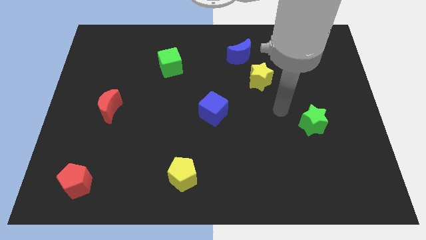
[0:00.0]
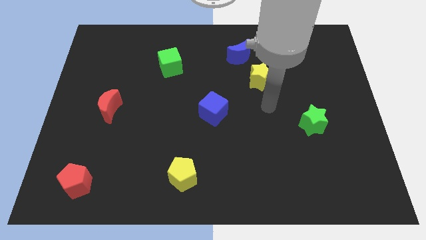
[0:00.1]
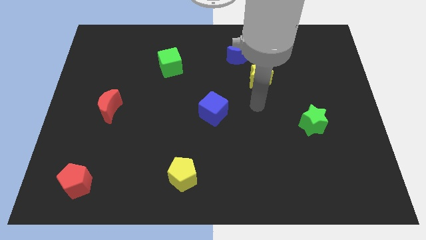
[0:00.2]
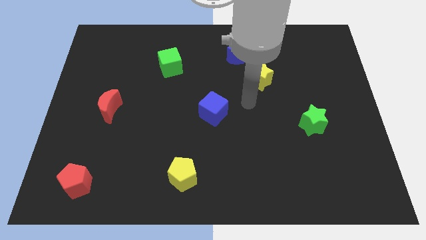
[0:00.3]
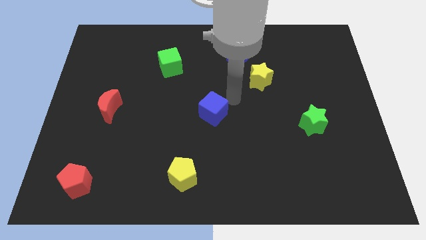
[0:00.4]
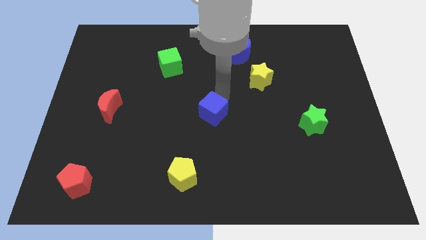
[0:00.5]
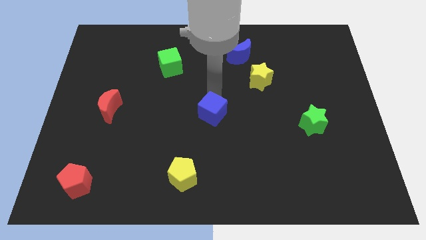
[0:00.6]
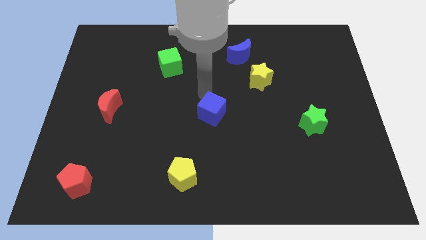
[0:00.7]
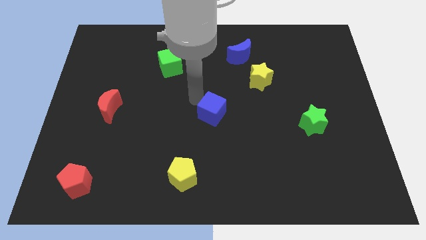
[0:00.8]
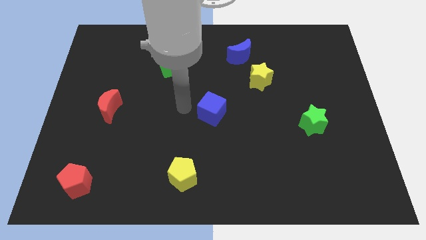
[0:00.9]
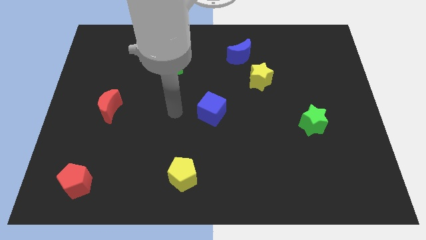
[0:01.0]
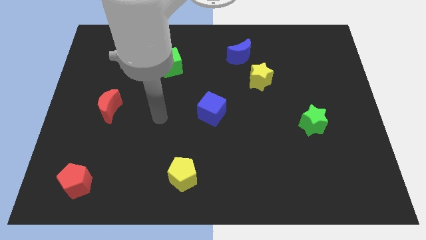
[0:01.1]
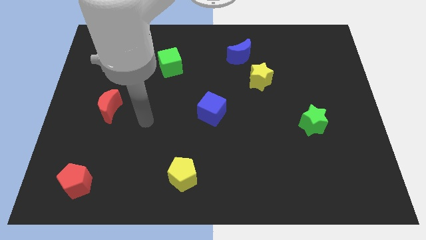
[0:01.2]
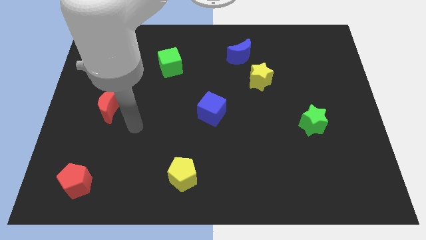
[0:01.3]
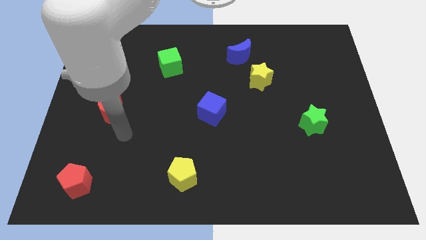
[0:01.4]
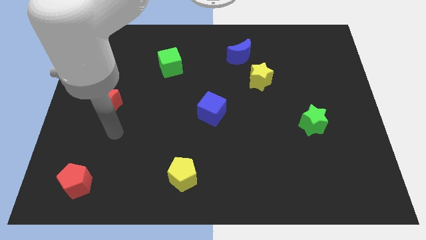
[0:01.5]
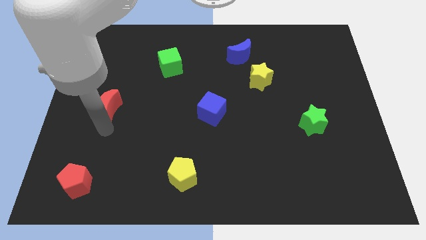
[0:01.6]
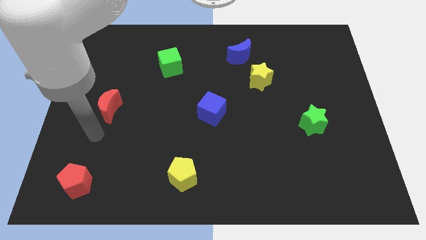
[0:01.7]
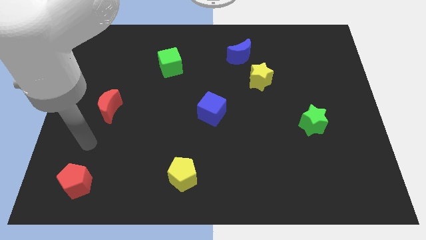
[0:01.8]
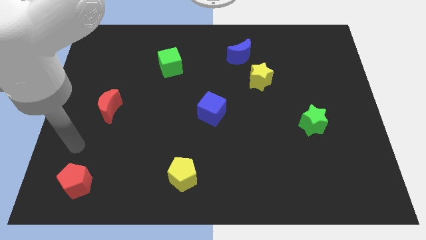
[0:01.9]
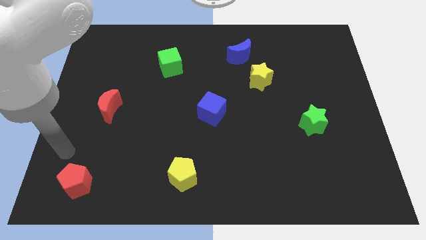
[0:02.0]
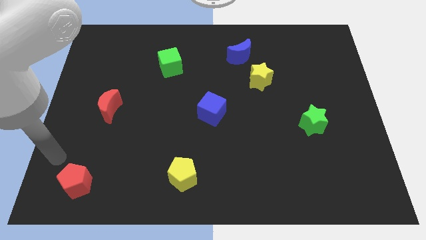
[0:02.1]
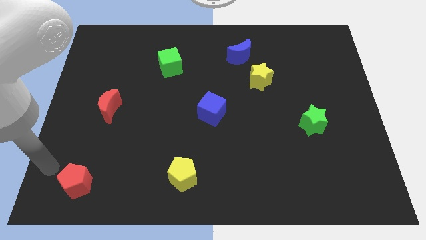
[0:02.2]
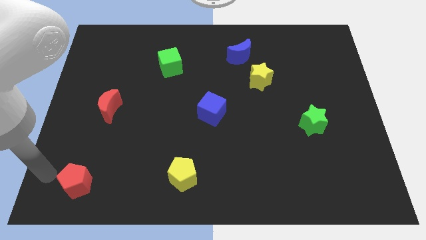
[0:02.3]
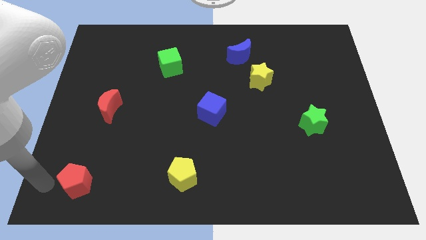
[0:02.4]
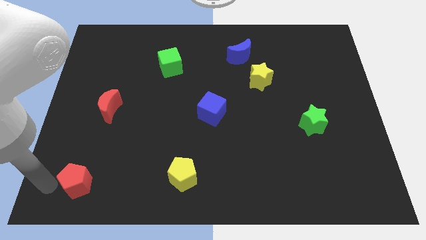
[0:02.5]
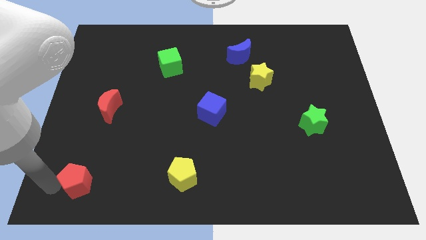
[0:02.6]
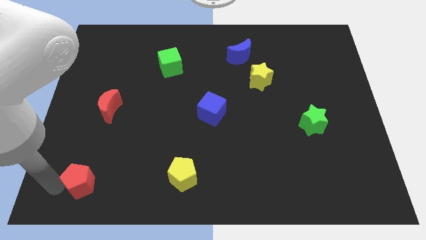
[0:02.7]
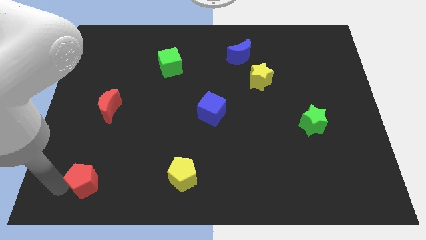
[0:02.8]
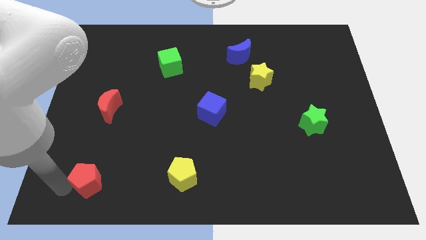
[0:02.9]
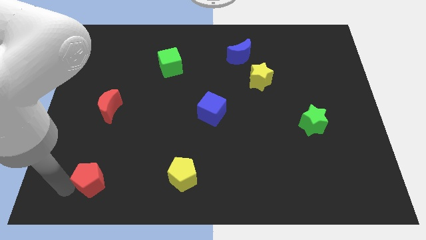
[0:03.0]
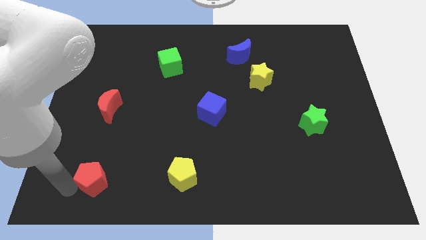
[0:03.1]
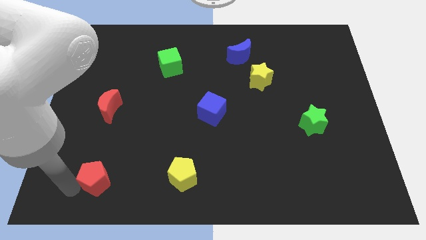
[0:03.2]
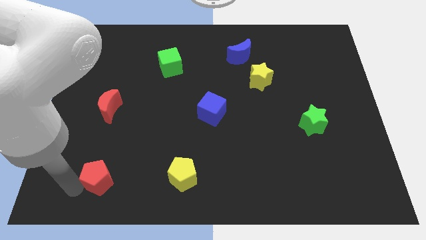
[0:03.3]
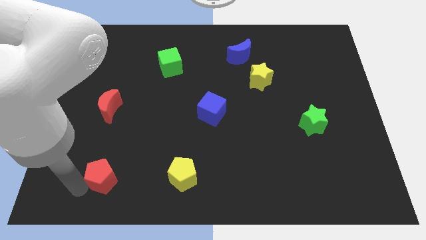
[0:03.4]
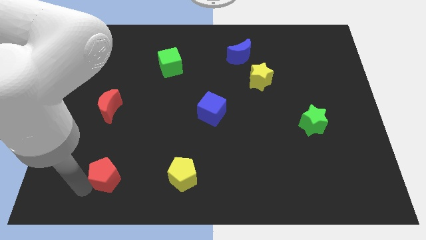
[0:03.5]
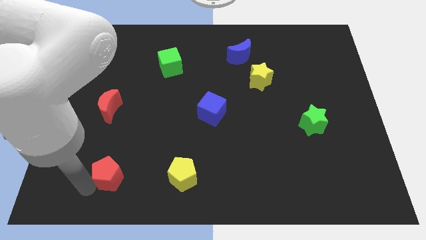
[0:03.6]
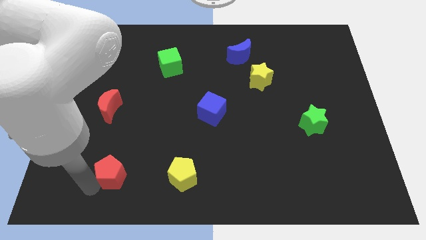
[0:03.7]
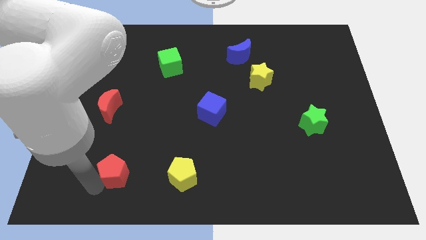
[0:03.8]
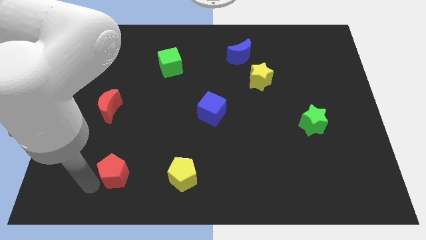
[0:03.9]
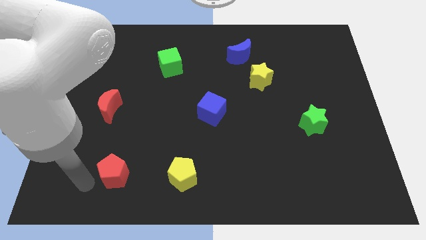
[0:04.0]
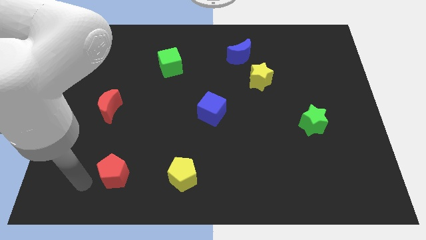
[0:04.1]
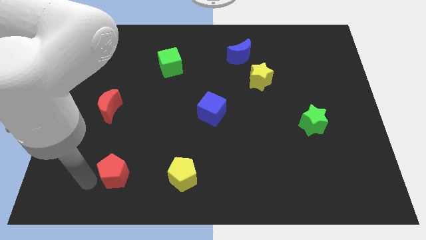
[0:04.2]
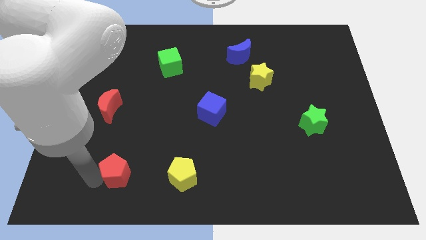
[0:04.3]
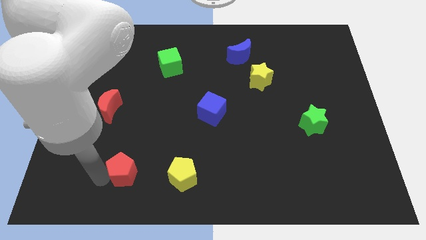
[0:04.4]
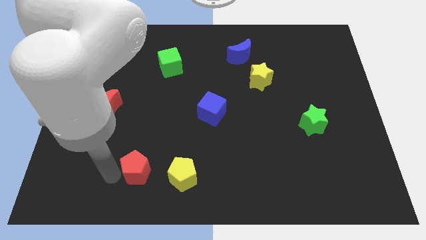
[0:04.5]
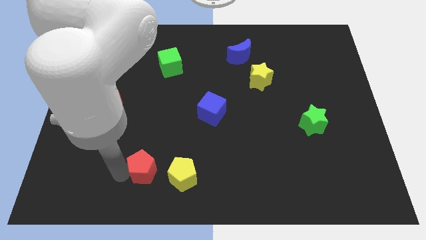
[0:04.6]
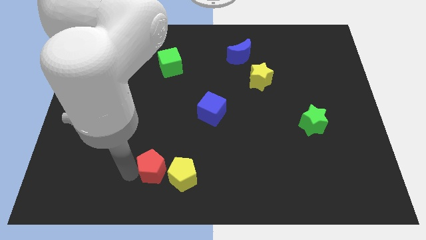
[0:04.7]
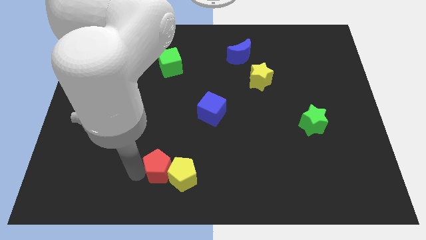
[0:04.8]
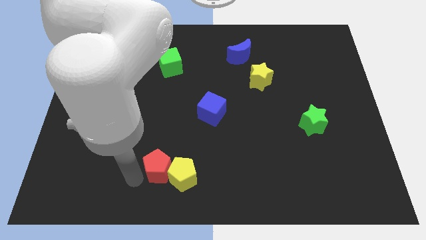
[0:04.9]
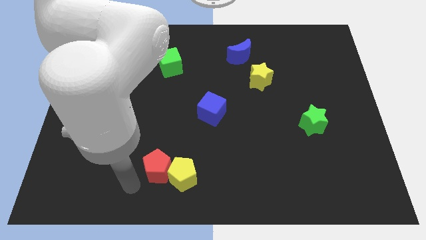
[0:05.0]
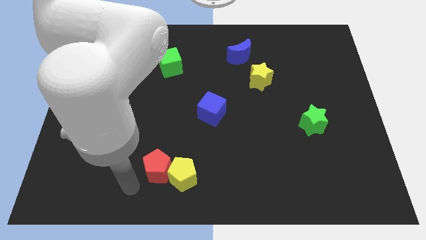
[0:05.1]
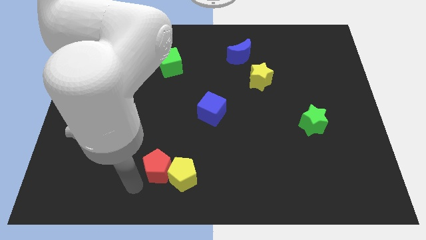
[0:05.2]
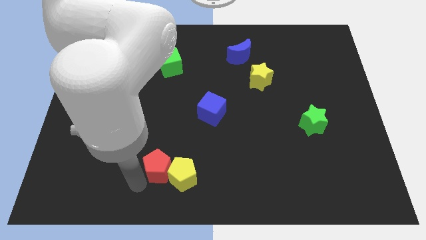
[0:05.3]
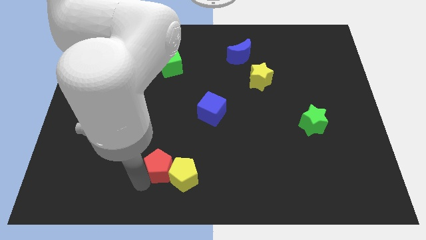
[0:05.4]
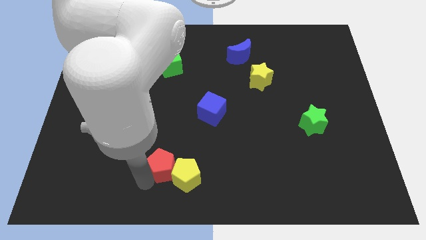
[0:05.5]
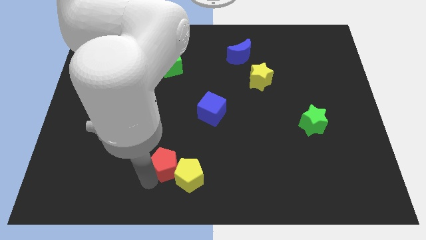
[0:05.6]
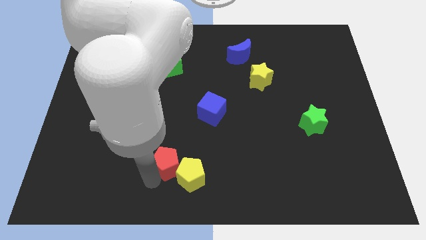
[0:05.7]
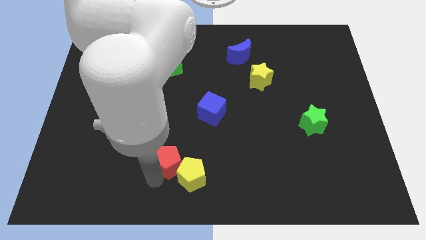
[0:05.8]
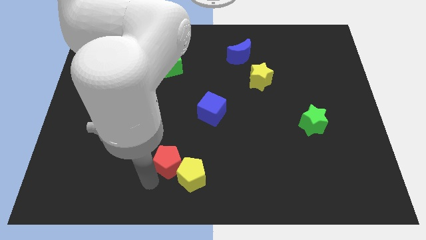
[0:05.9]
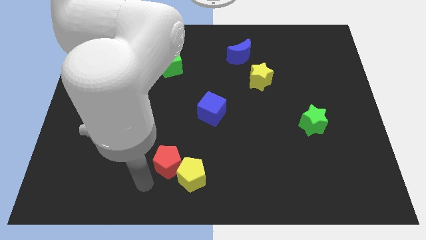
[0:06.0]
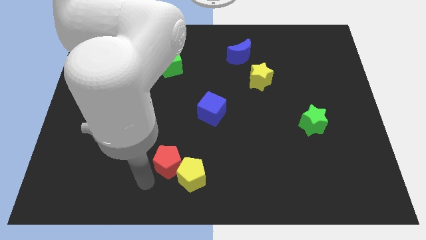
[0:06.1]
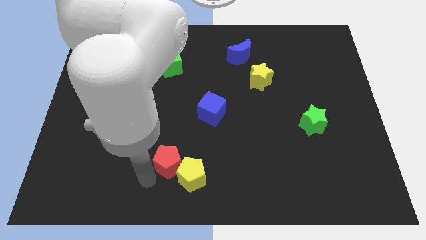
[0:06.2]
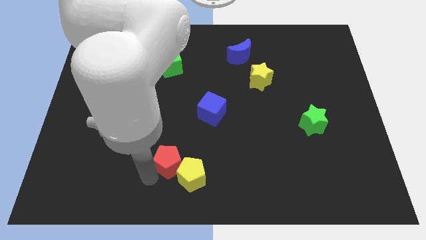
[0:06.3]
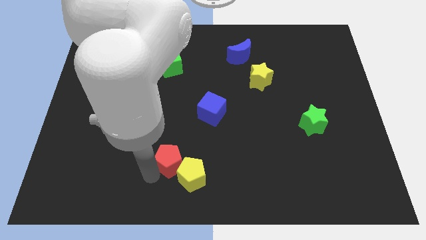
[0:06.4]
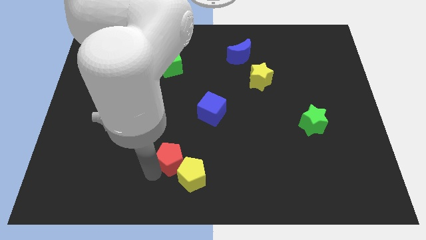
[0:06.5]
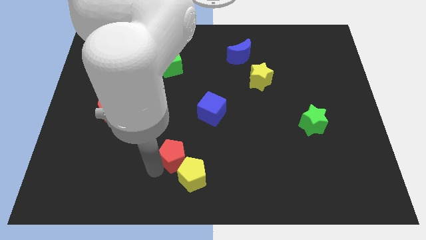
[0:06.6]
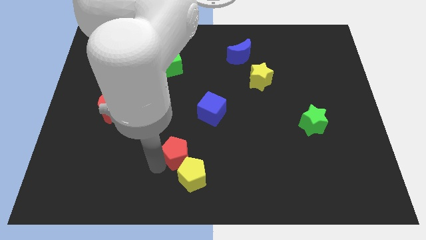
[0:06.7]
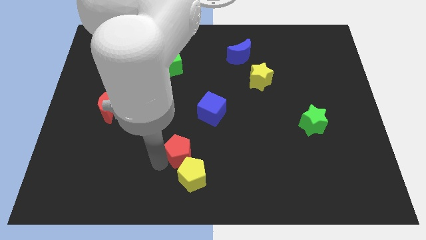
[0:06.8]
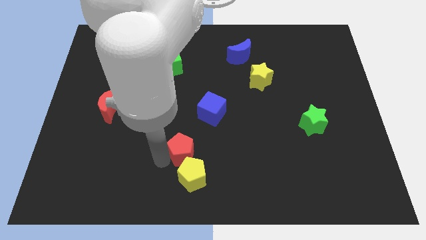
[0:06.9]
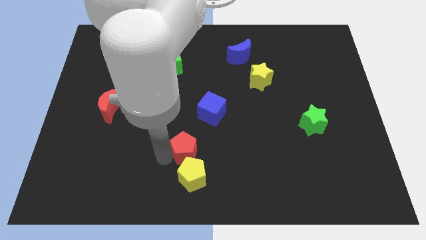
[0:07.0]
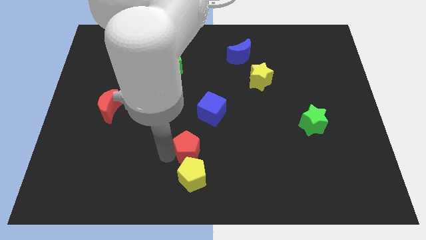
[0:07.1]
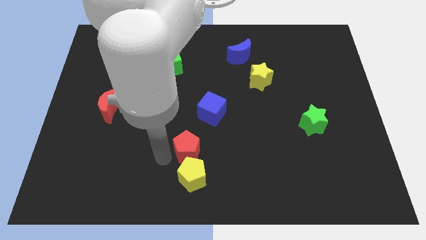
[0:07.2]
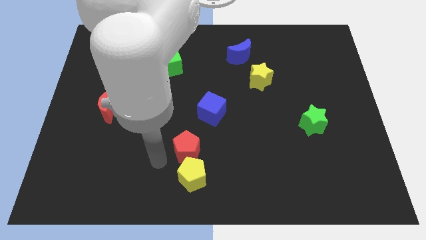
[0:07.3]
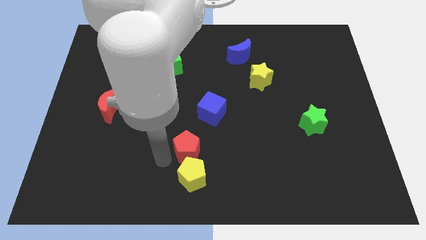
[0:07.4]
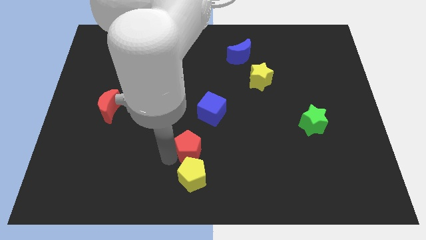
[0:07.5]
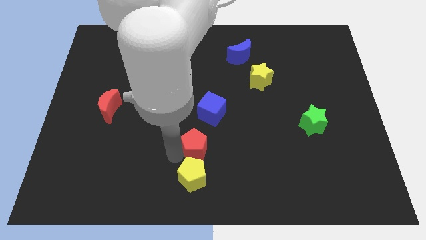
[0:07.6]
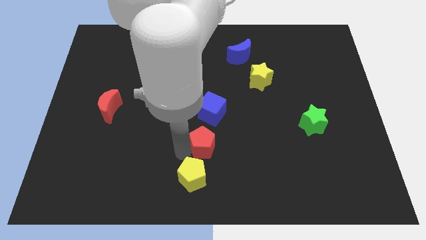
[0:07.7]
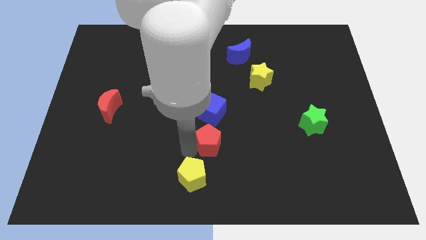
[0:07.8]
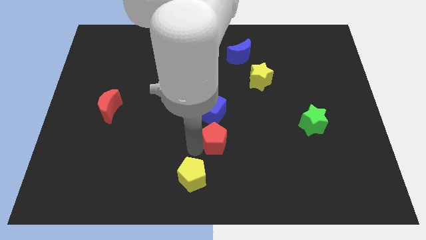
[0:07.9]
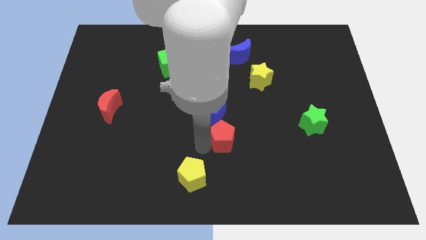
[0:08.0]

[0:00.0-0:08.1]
move the red pentagon to the bottom right side of the blue cube
